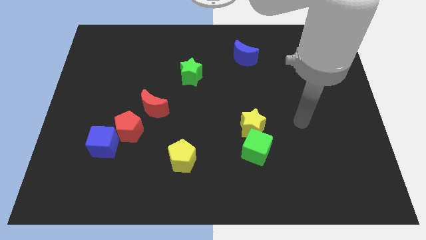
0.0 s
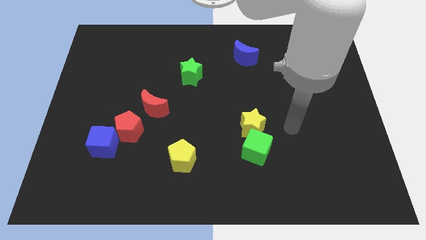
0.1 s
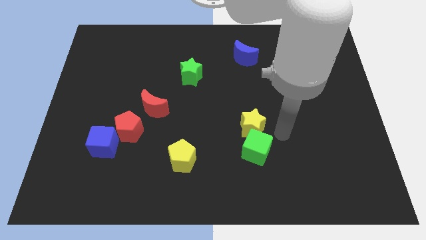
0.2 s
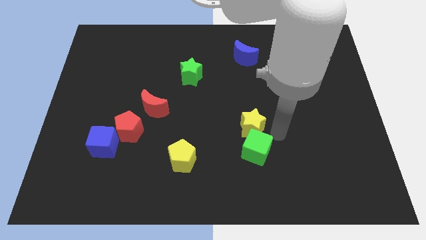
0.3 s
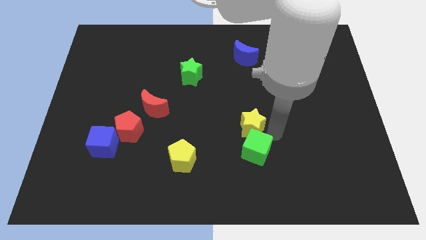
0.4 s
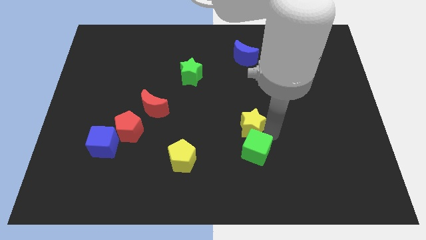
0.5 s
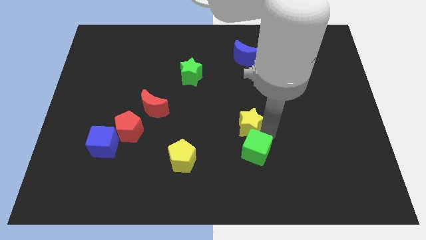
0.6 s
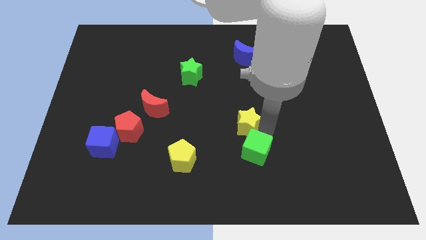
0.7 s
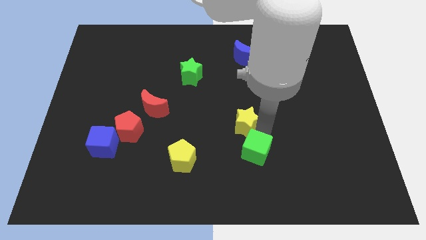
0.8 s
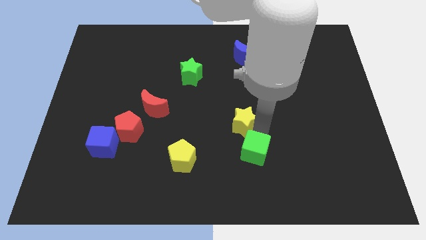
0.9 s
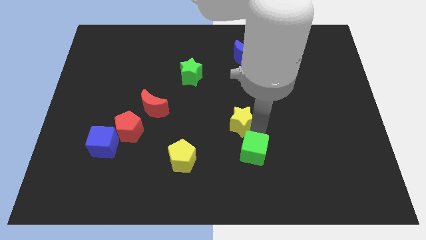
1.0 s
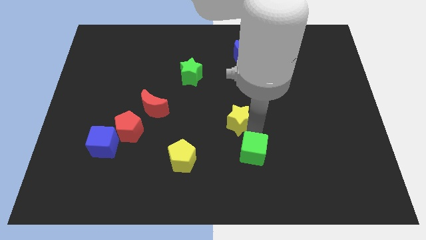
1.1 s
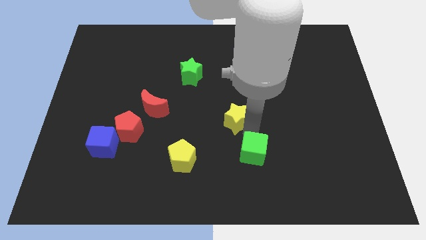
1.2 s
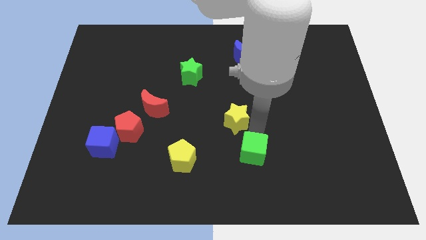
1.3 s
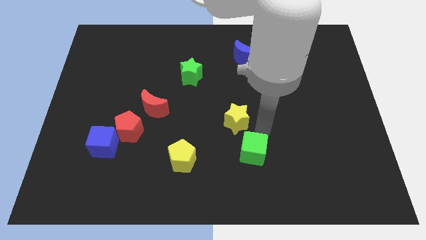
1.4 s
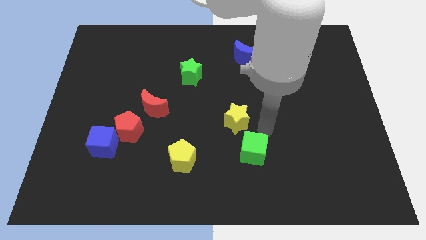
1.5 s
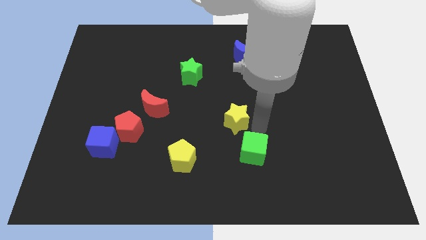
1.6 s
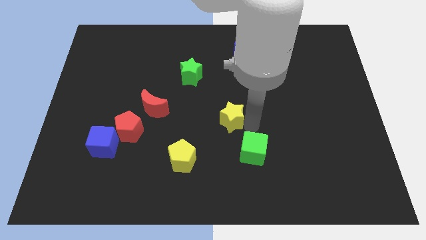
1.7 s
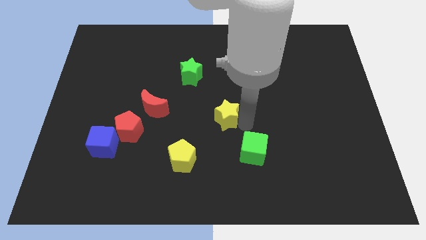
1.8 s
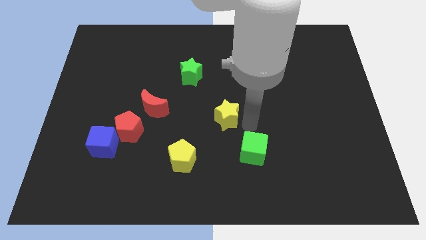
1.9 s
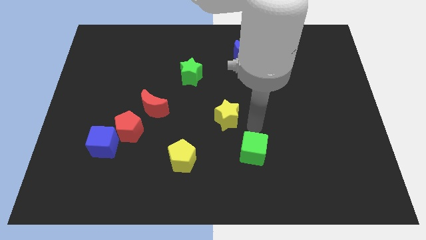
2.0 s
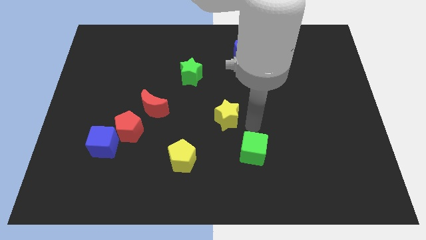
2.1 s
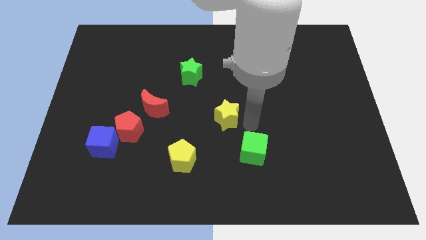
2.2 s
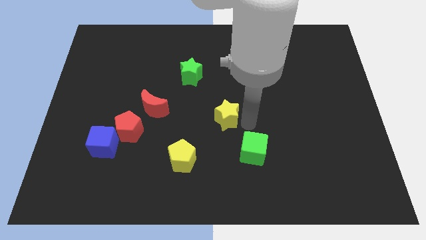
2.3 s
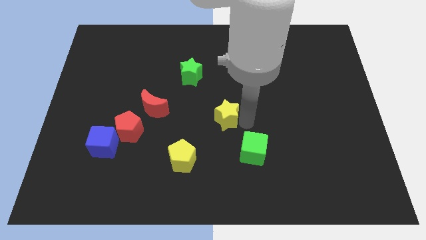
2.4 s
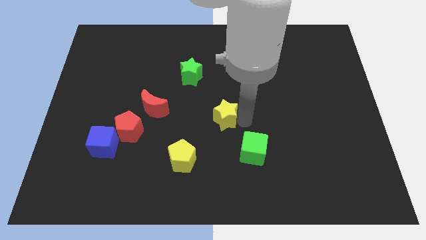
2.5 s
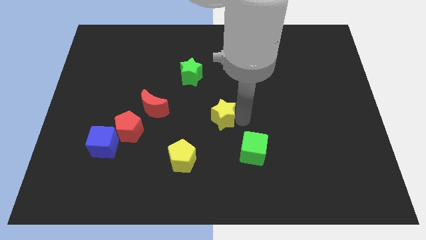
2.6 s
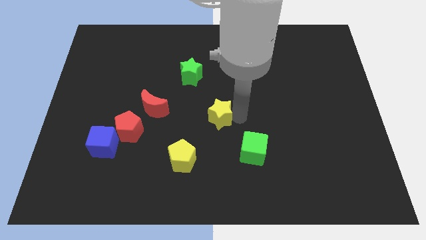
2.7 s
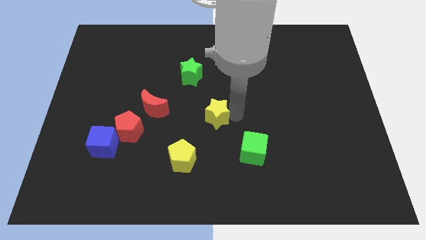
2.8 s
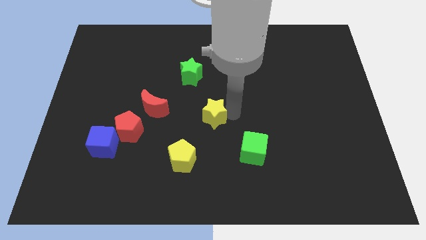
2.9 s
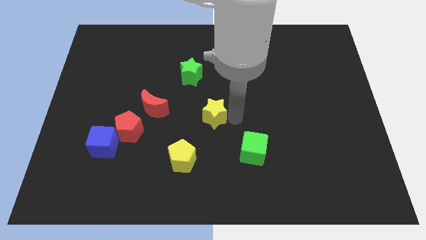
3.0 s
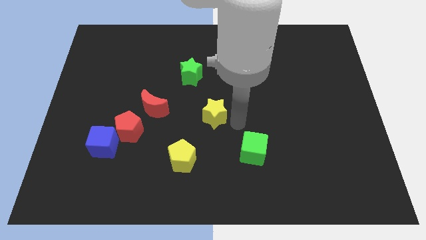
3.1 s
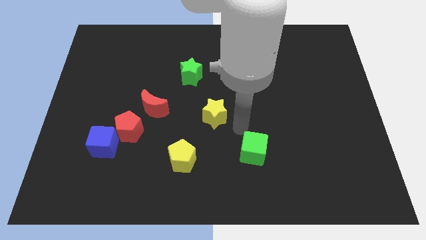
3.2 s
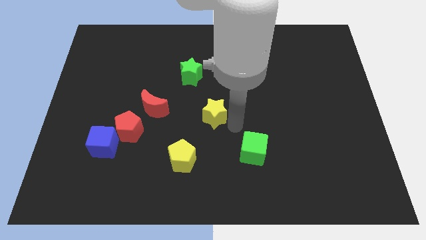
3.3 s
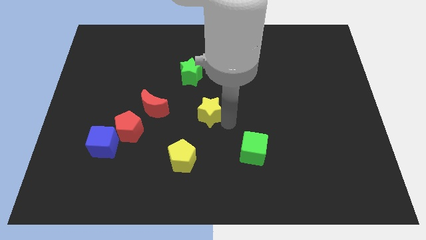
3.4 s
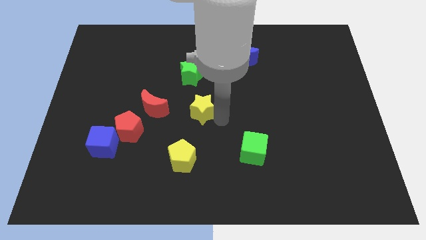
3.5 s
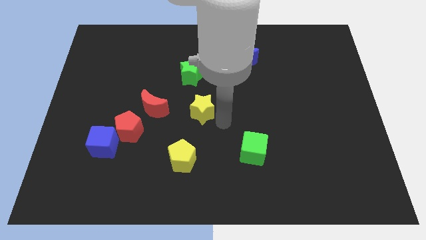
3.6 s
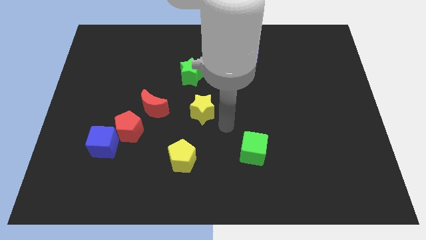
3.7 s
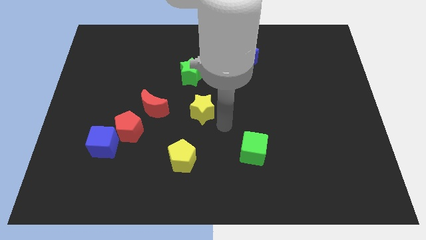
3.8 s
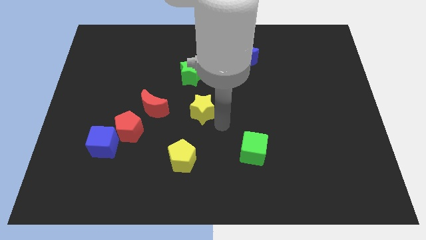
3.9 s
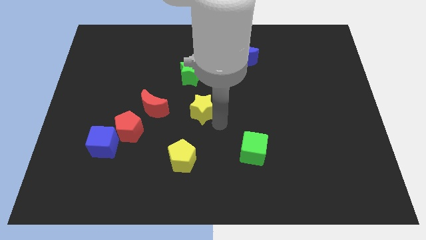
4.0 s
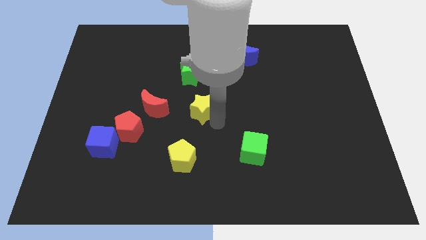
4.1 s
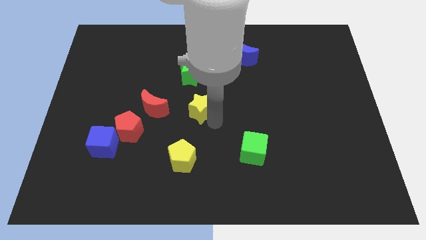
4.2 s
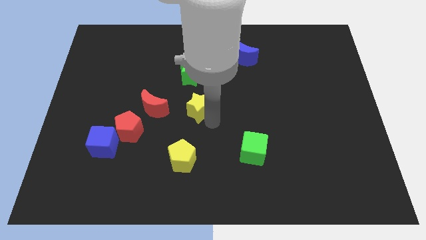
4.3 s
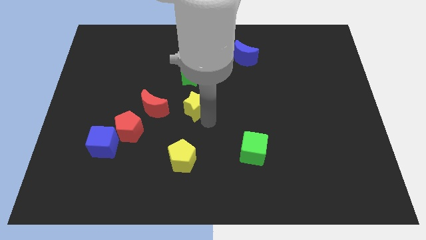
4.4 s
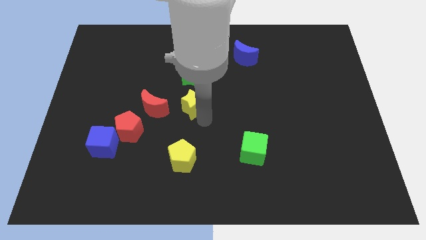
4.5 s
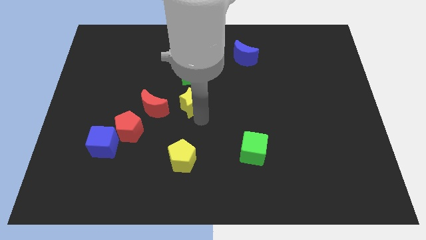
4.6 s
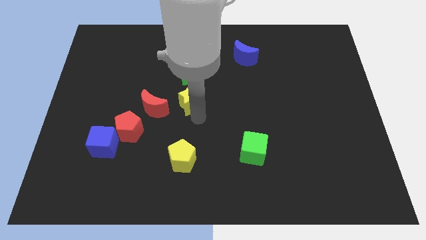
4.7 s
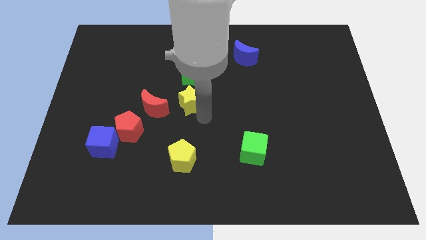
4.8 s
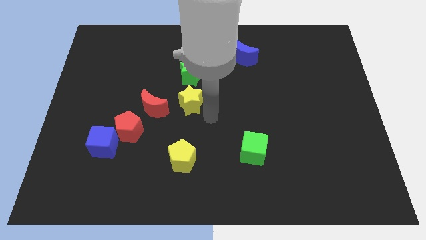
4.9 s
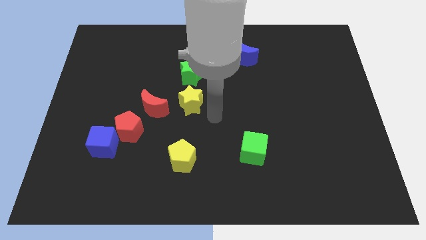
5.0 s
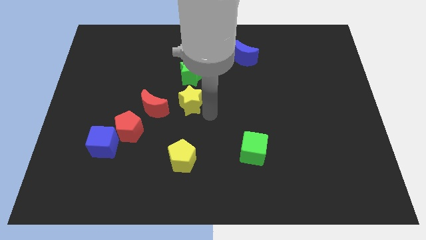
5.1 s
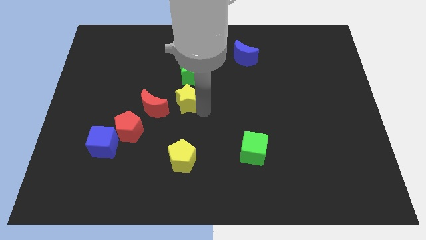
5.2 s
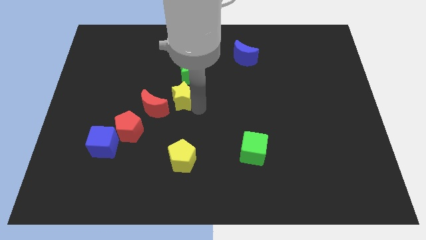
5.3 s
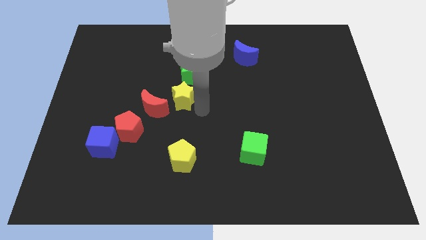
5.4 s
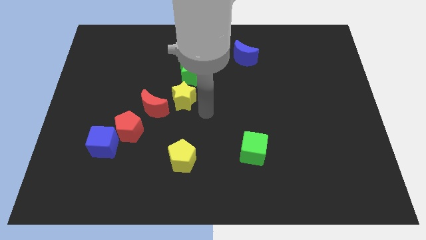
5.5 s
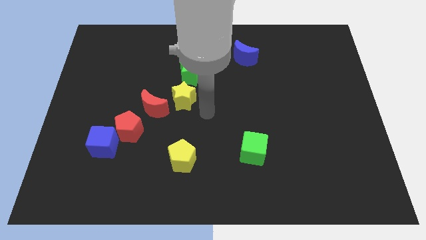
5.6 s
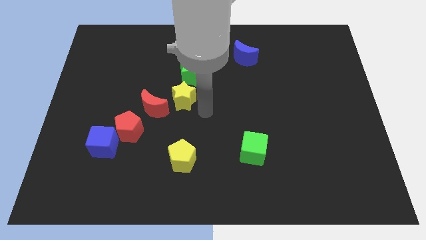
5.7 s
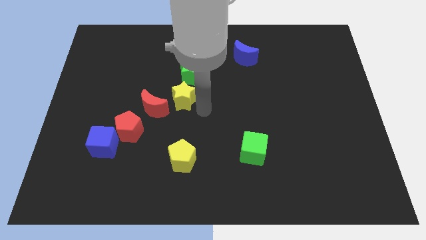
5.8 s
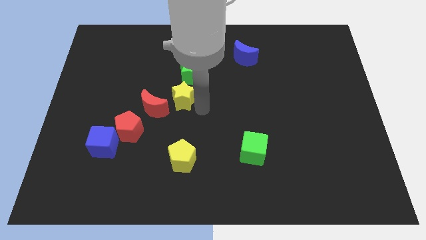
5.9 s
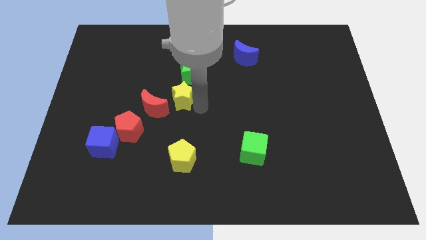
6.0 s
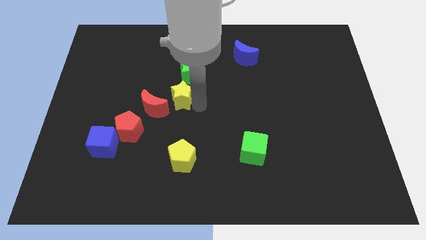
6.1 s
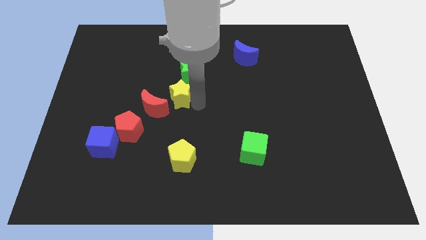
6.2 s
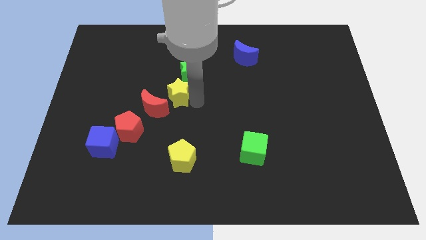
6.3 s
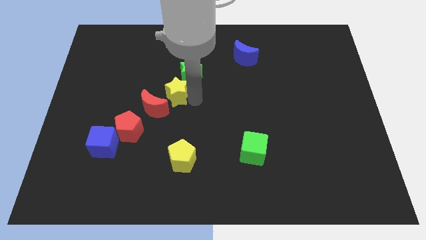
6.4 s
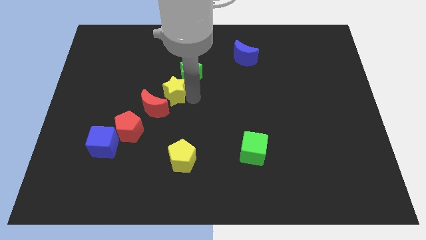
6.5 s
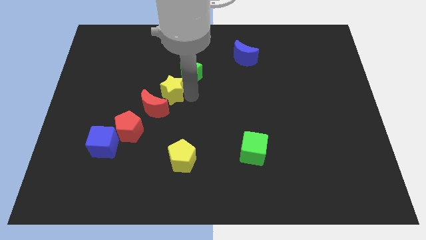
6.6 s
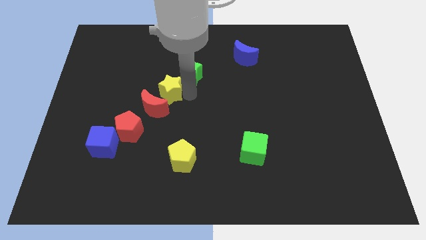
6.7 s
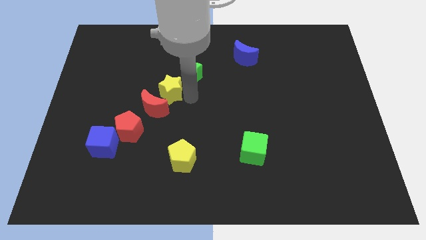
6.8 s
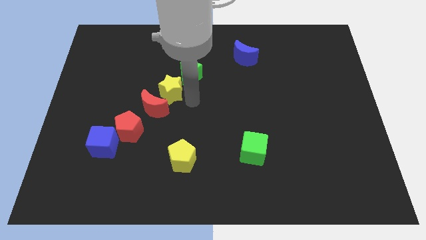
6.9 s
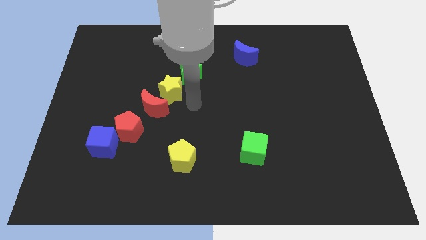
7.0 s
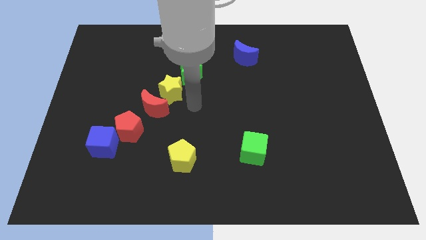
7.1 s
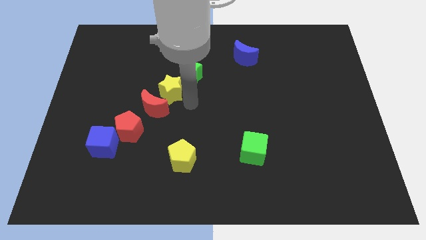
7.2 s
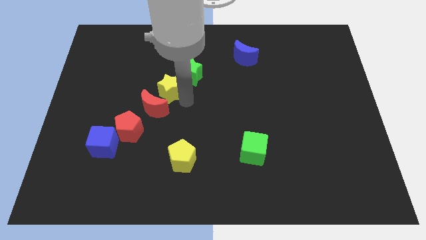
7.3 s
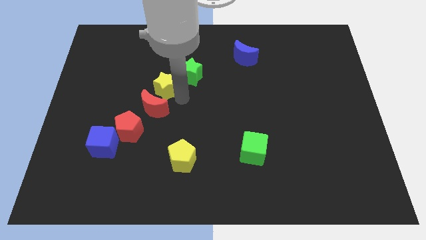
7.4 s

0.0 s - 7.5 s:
push the yellow star to the left of the green star

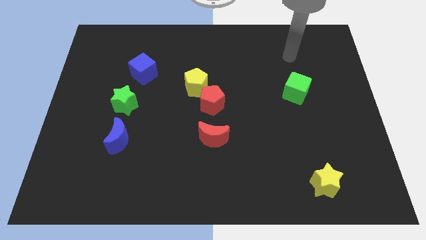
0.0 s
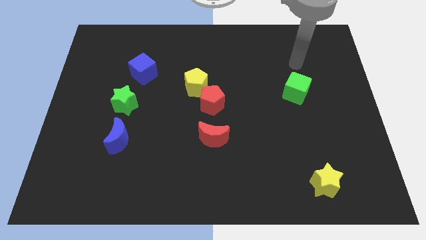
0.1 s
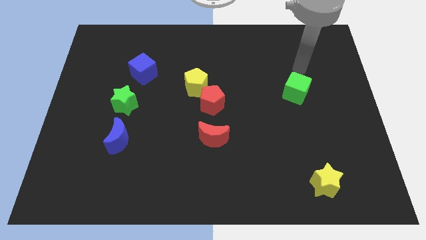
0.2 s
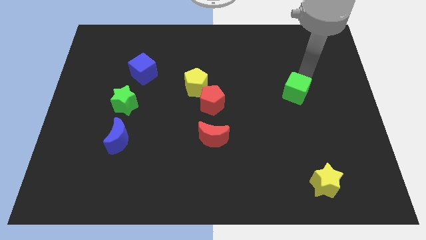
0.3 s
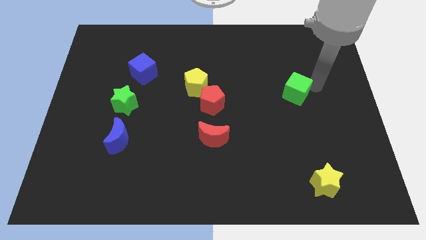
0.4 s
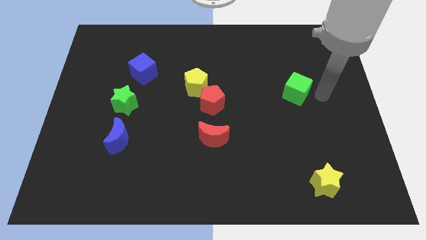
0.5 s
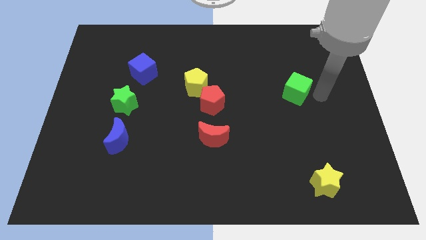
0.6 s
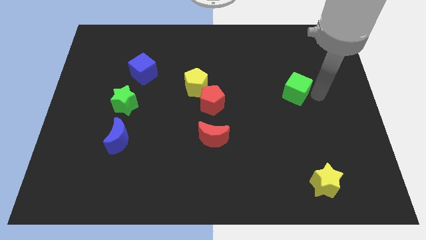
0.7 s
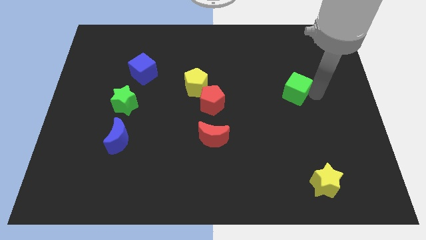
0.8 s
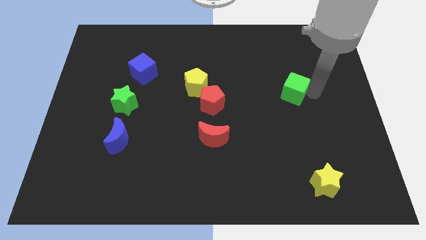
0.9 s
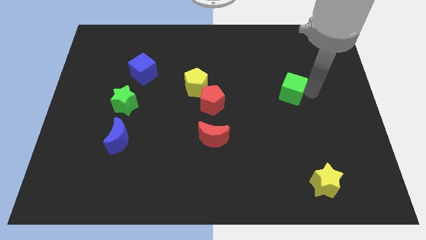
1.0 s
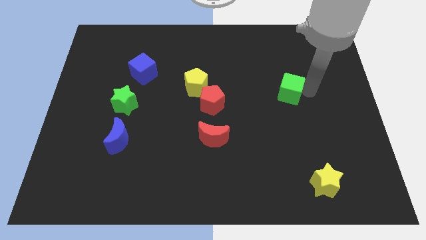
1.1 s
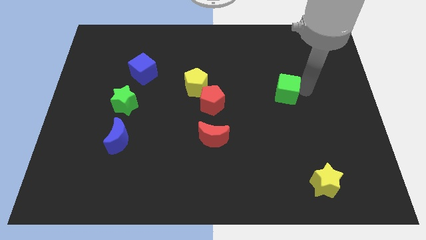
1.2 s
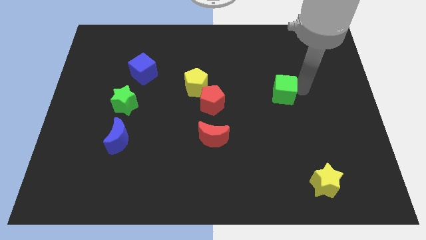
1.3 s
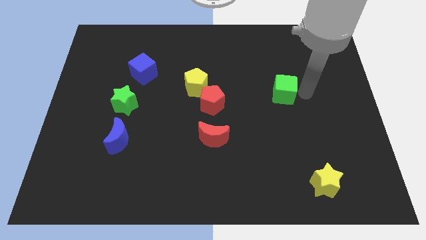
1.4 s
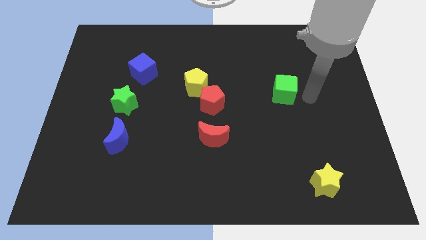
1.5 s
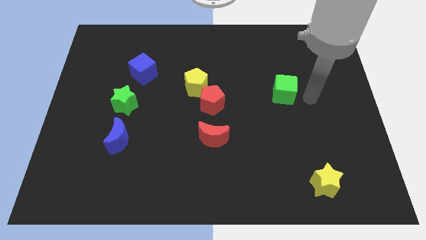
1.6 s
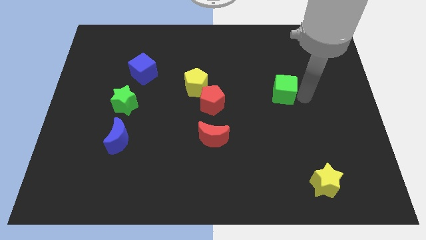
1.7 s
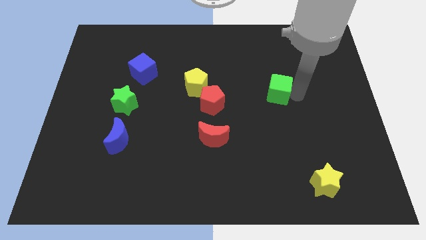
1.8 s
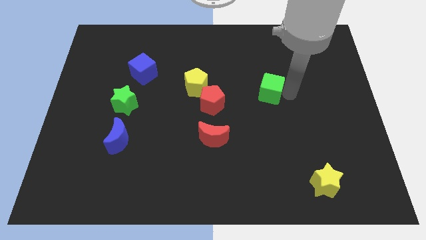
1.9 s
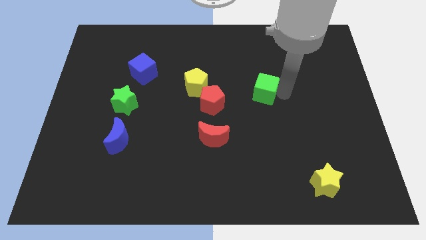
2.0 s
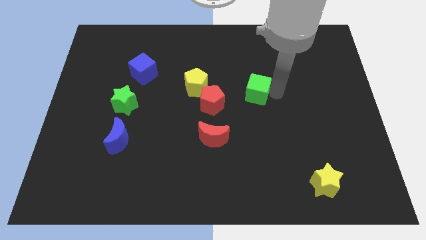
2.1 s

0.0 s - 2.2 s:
put the green cube to the right side of the yellow pentagon
